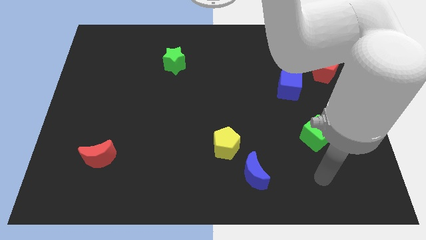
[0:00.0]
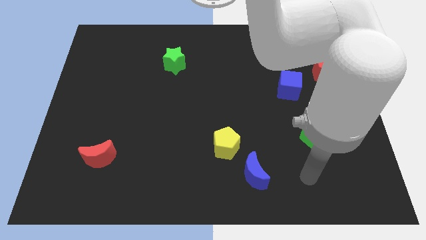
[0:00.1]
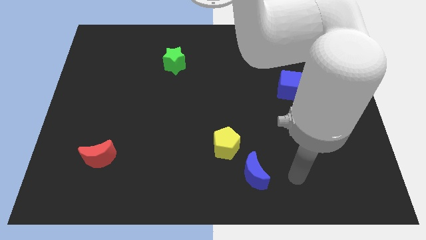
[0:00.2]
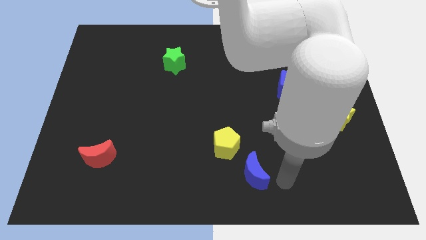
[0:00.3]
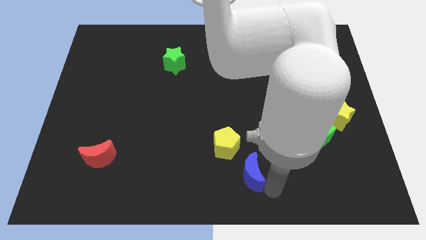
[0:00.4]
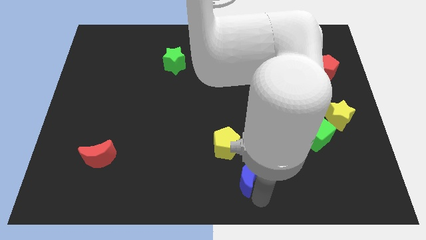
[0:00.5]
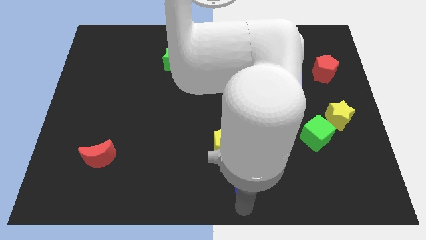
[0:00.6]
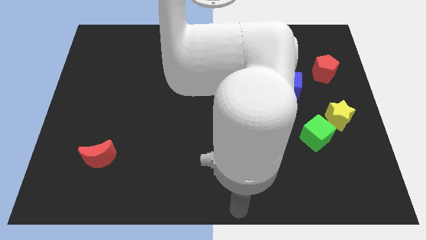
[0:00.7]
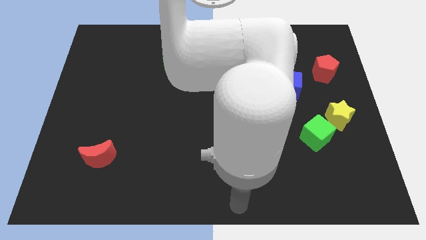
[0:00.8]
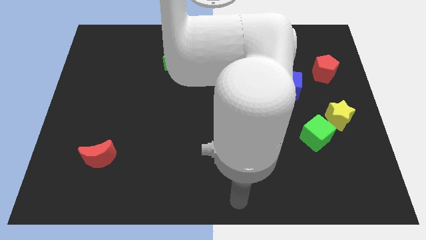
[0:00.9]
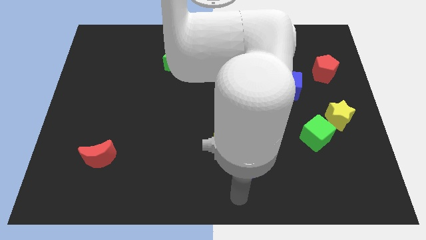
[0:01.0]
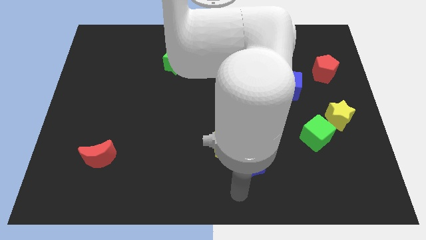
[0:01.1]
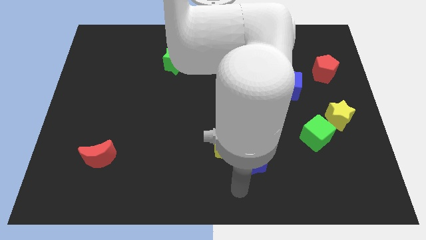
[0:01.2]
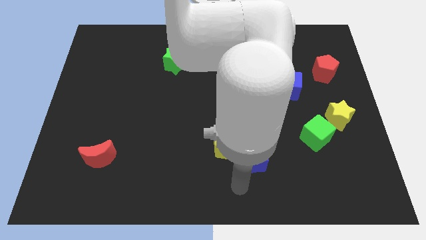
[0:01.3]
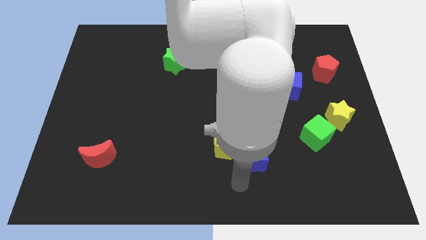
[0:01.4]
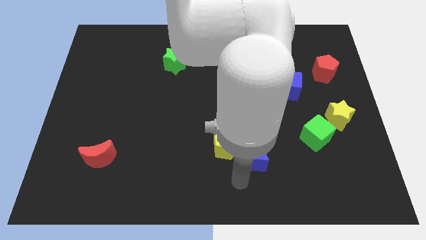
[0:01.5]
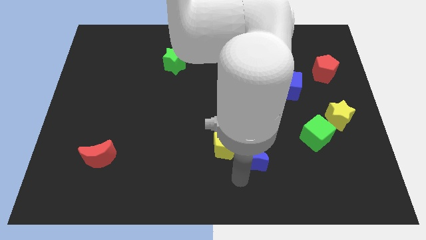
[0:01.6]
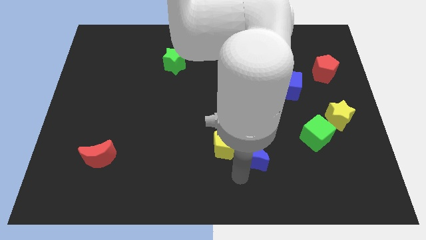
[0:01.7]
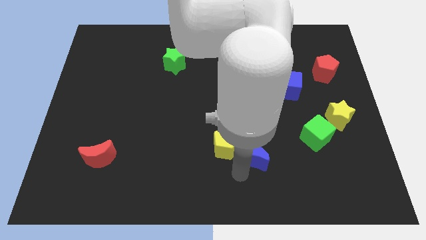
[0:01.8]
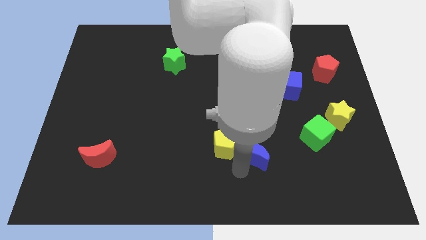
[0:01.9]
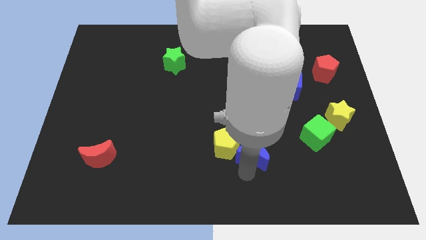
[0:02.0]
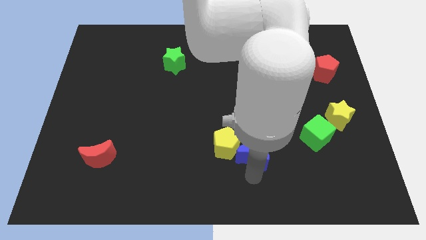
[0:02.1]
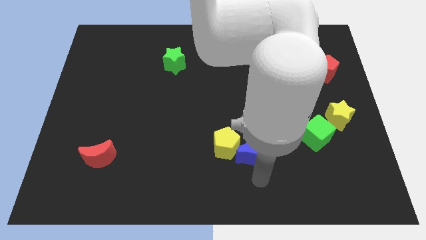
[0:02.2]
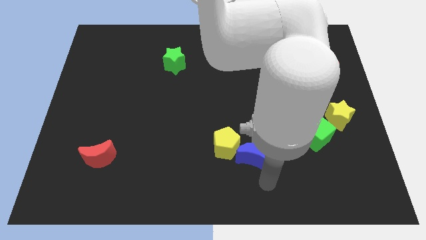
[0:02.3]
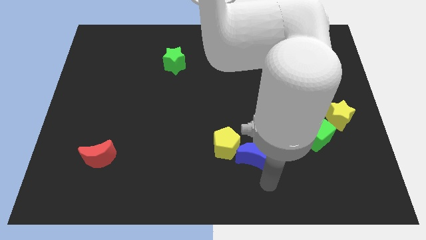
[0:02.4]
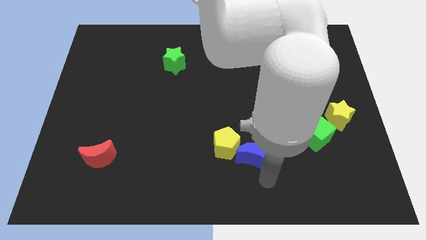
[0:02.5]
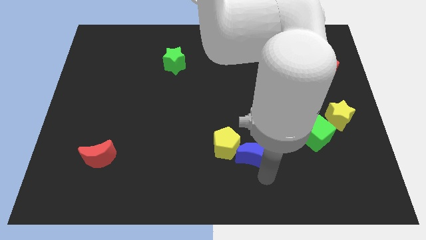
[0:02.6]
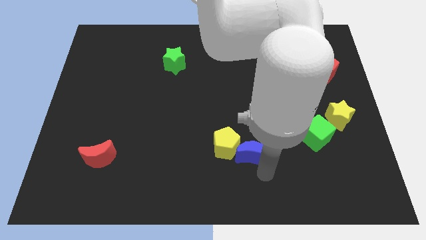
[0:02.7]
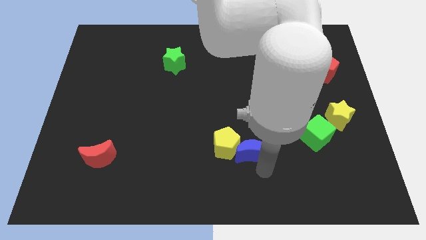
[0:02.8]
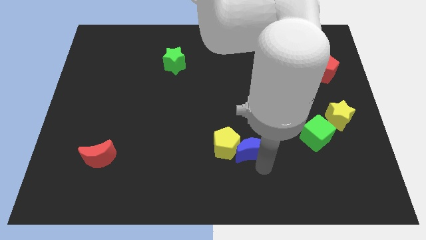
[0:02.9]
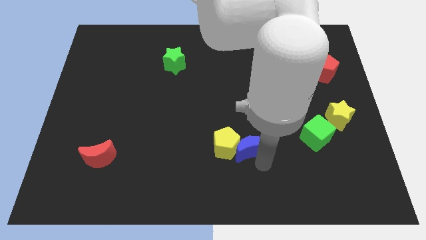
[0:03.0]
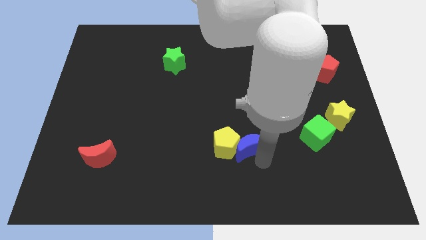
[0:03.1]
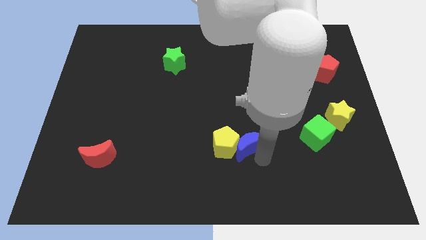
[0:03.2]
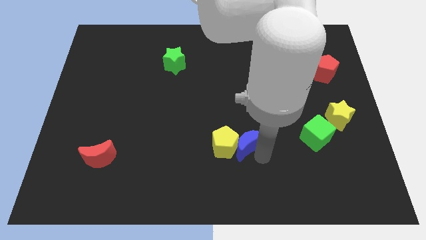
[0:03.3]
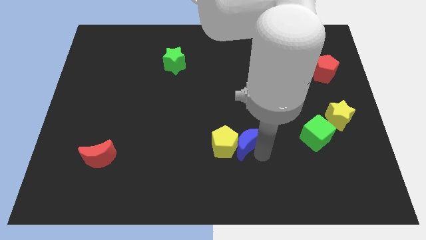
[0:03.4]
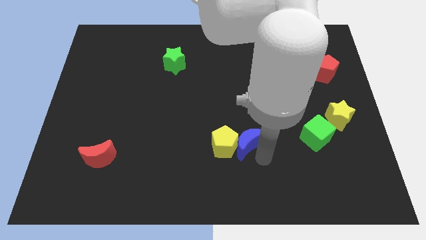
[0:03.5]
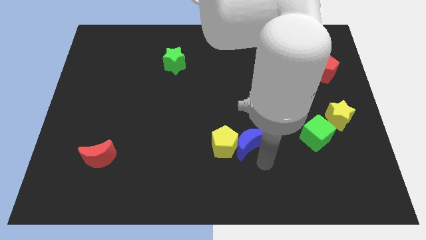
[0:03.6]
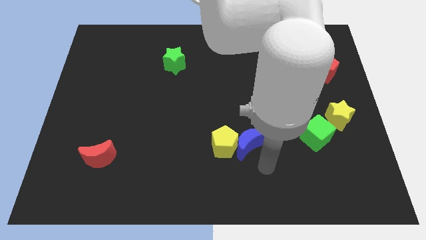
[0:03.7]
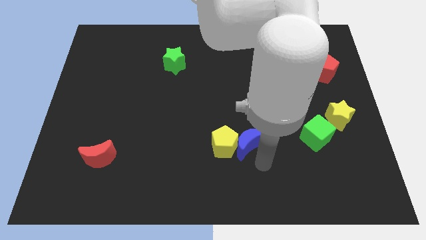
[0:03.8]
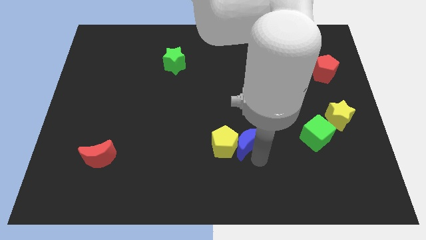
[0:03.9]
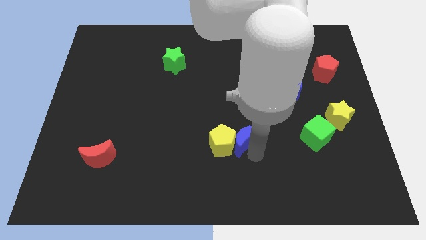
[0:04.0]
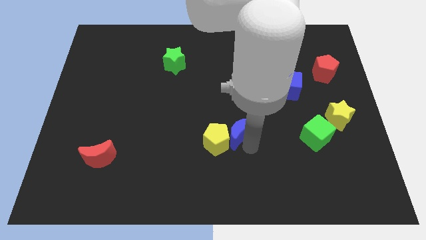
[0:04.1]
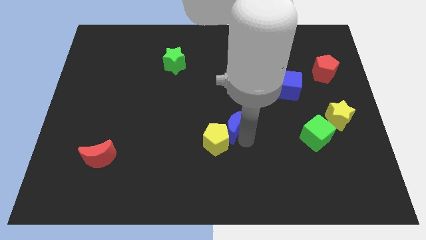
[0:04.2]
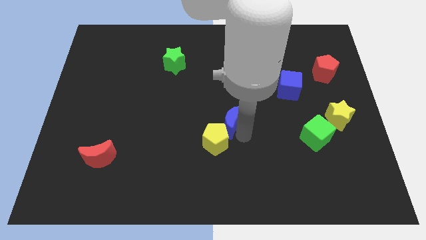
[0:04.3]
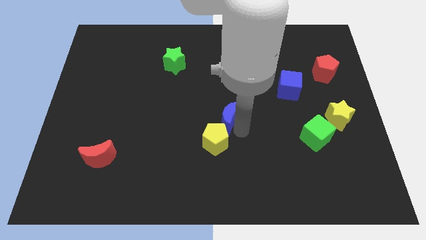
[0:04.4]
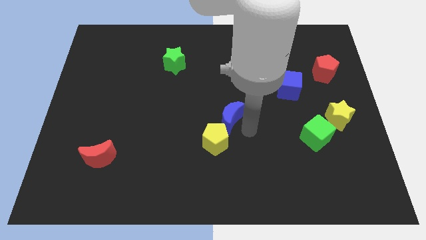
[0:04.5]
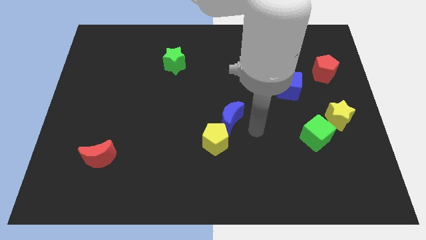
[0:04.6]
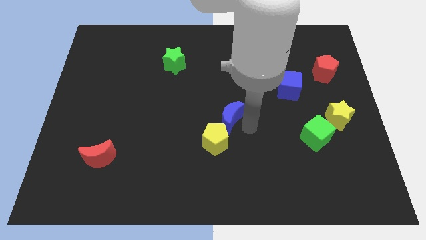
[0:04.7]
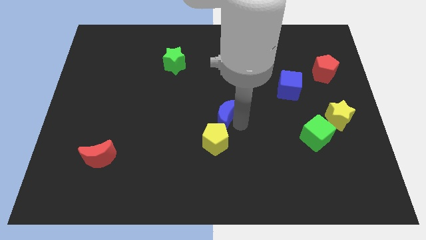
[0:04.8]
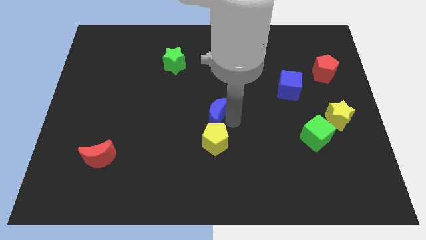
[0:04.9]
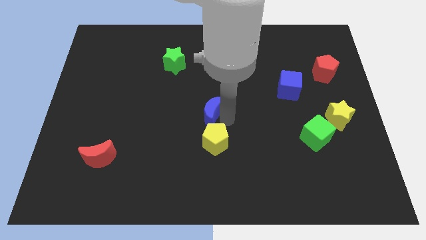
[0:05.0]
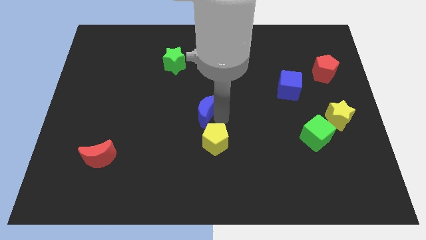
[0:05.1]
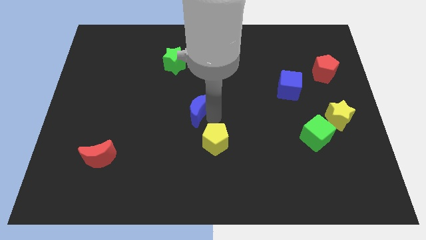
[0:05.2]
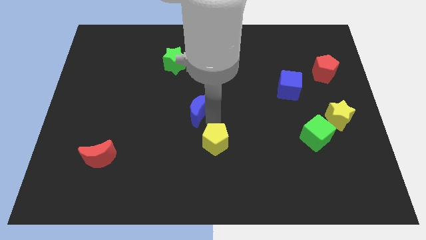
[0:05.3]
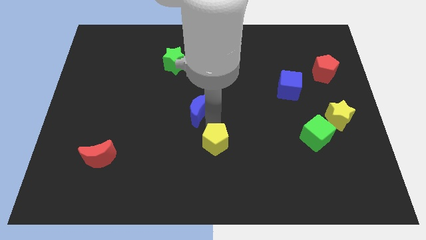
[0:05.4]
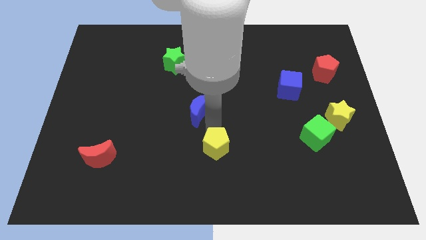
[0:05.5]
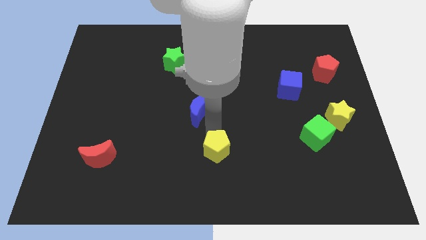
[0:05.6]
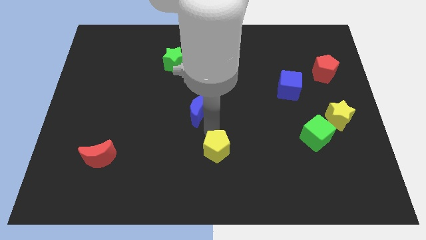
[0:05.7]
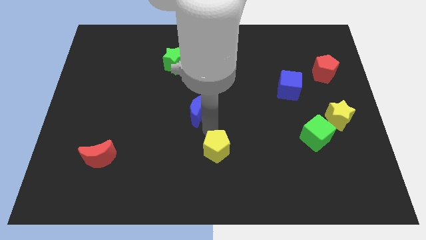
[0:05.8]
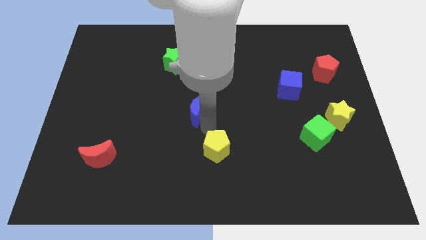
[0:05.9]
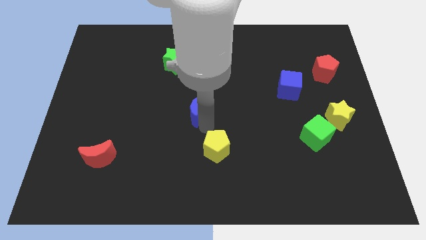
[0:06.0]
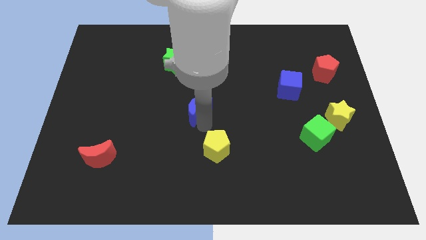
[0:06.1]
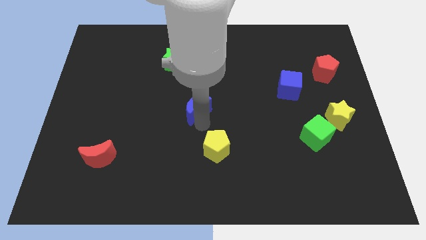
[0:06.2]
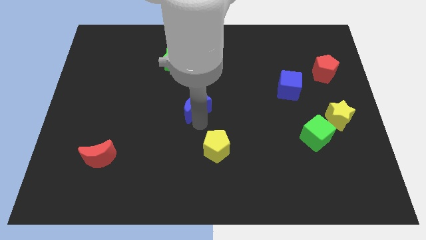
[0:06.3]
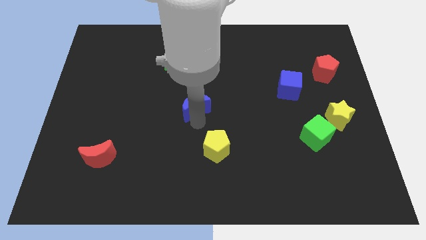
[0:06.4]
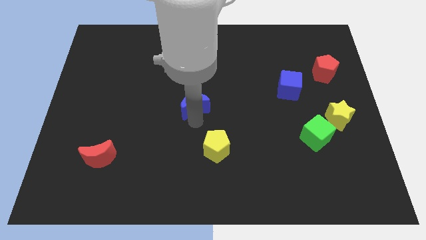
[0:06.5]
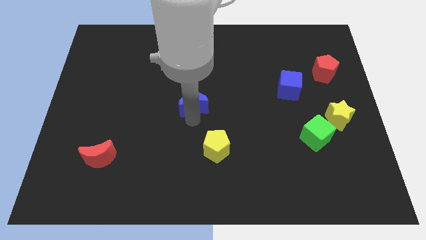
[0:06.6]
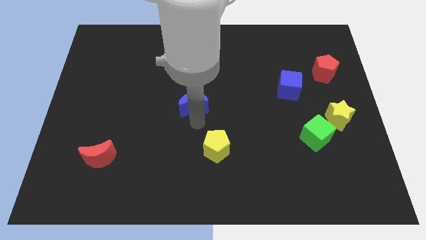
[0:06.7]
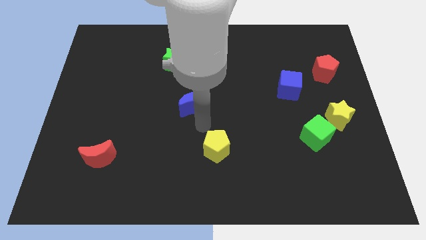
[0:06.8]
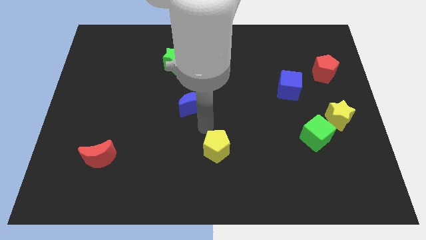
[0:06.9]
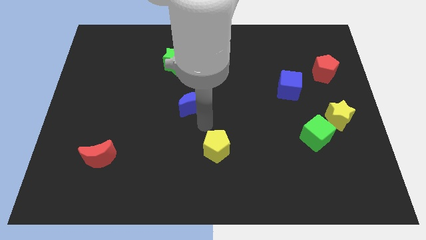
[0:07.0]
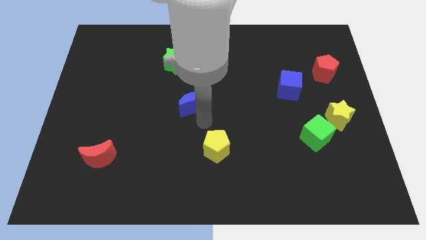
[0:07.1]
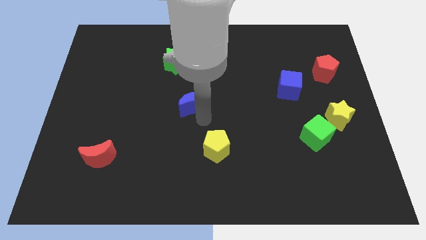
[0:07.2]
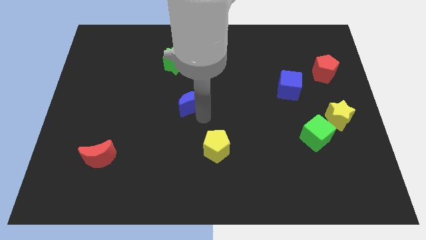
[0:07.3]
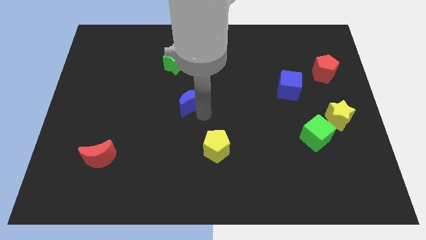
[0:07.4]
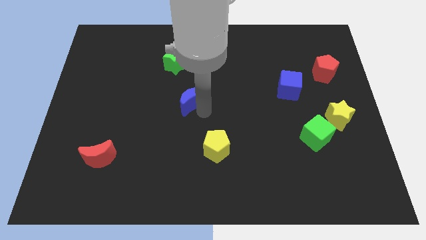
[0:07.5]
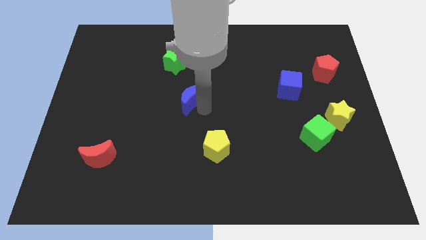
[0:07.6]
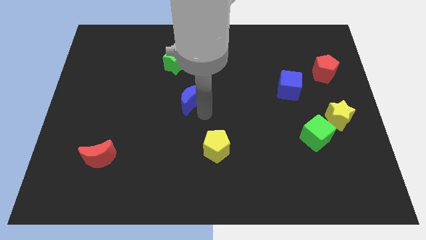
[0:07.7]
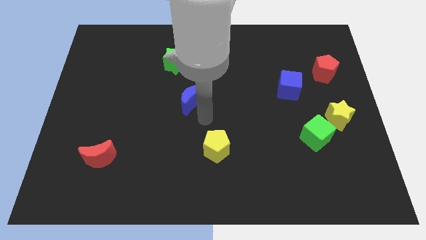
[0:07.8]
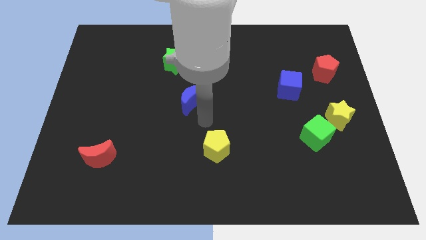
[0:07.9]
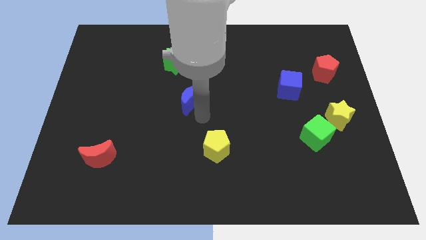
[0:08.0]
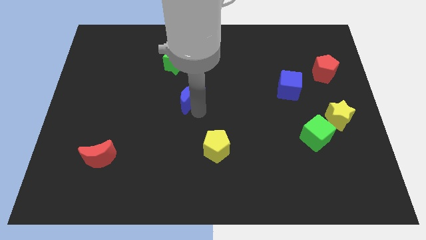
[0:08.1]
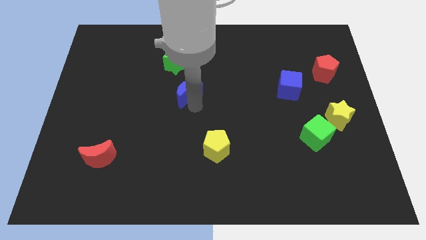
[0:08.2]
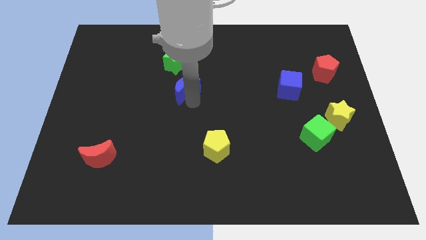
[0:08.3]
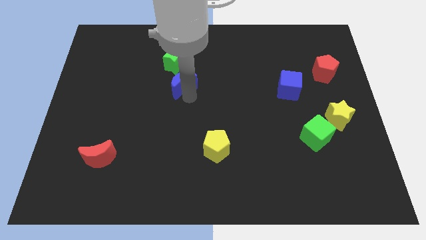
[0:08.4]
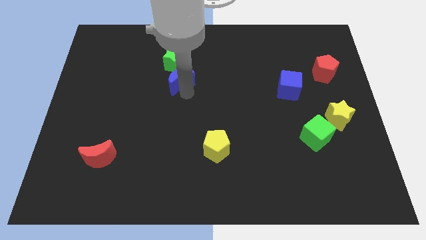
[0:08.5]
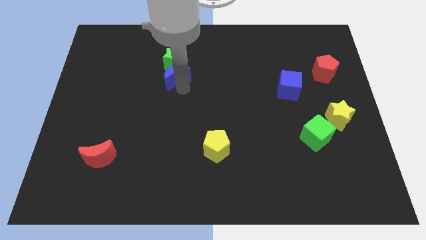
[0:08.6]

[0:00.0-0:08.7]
put the blue moon close to the green star
